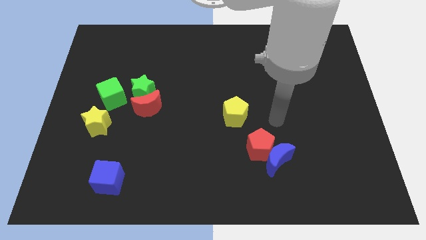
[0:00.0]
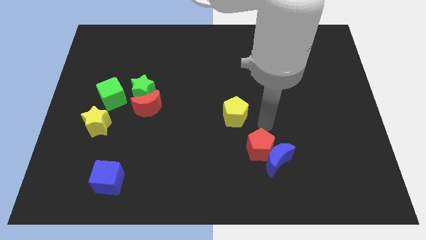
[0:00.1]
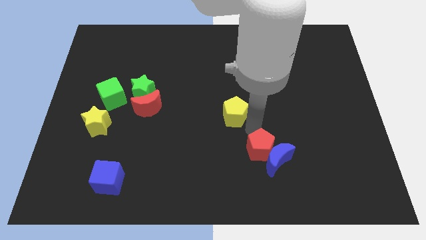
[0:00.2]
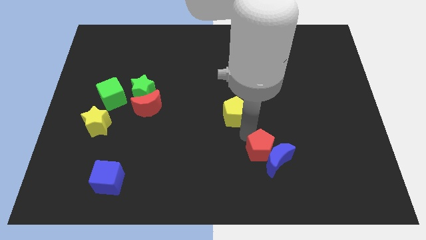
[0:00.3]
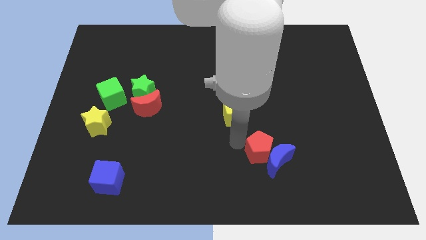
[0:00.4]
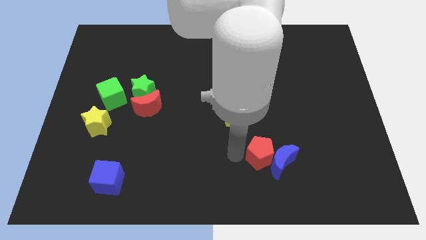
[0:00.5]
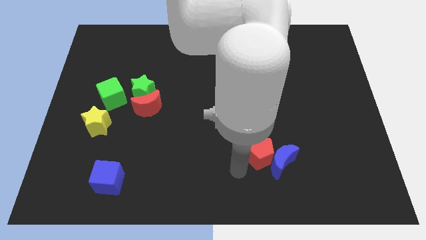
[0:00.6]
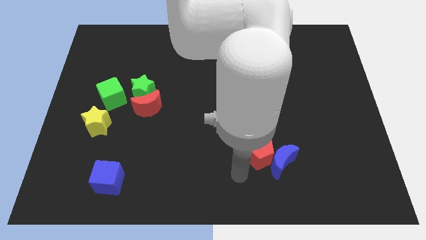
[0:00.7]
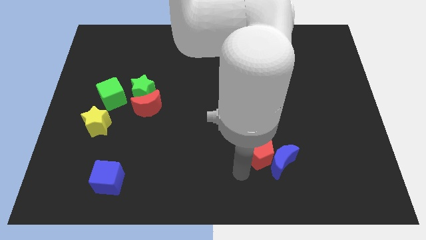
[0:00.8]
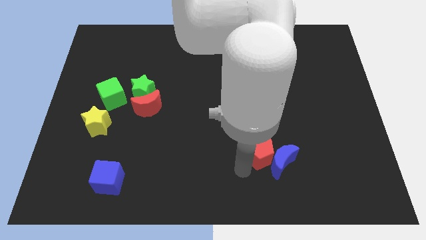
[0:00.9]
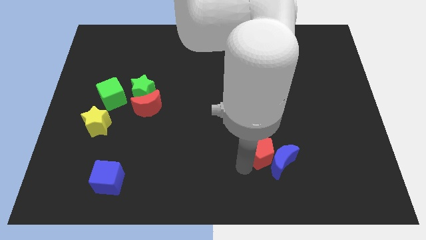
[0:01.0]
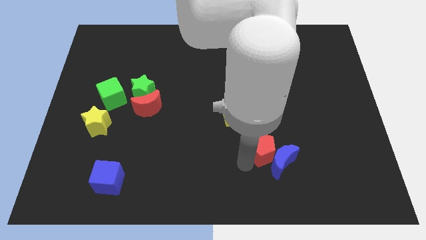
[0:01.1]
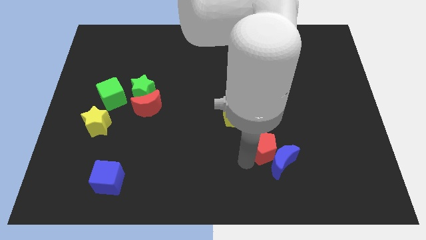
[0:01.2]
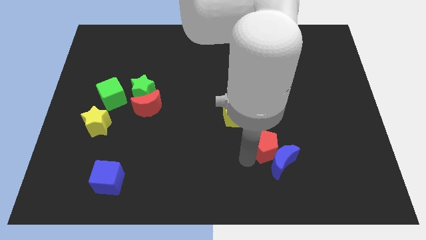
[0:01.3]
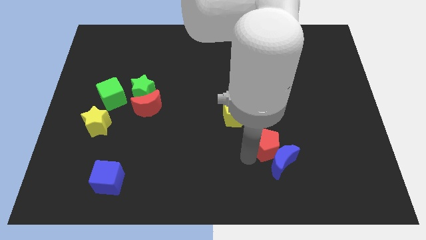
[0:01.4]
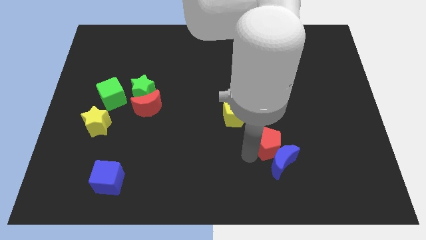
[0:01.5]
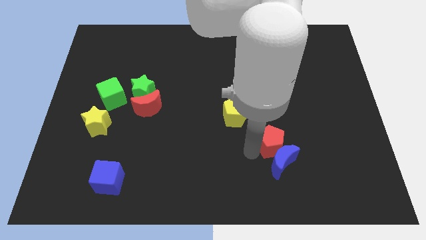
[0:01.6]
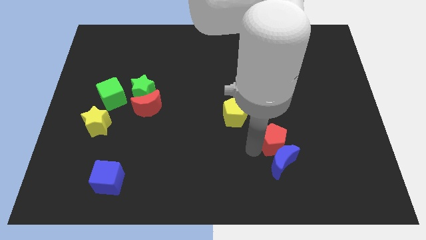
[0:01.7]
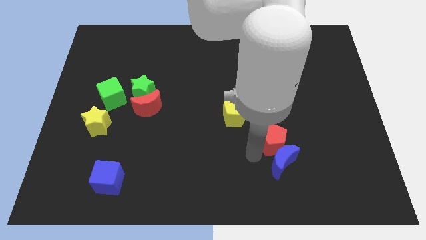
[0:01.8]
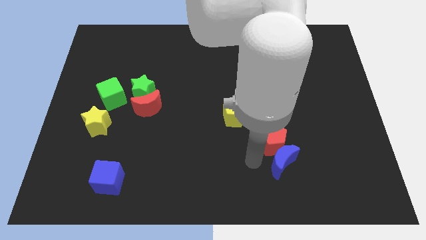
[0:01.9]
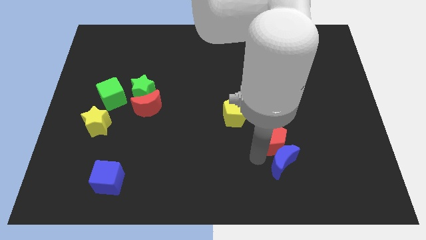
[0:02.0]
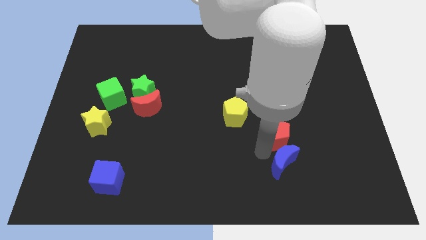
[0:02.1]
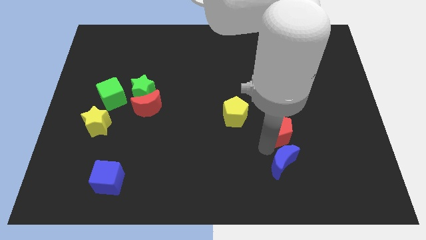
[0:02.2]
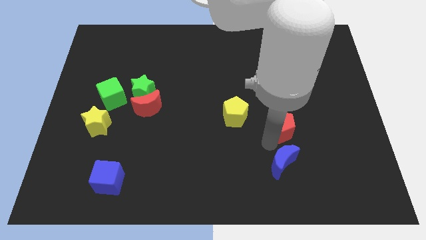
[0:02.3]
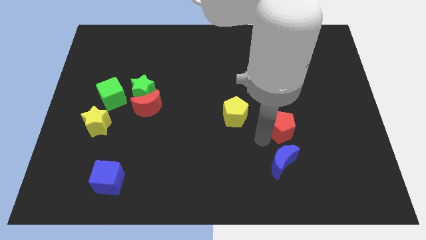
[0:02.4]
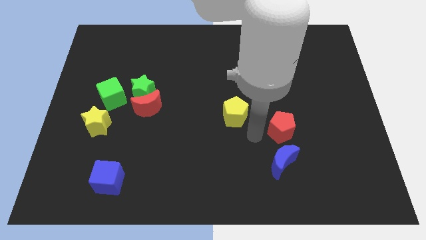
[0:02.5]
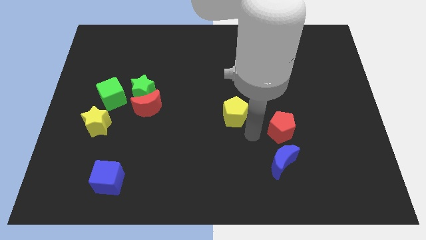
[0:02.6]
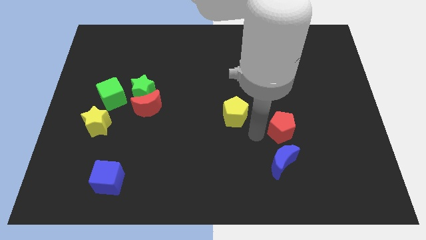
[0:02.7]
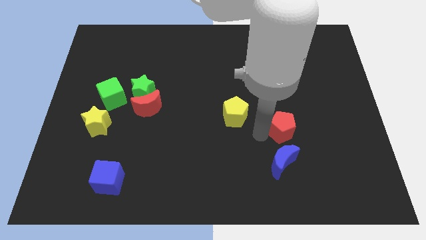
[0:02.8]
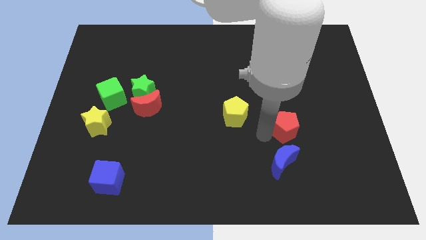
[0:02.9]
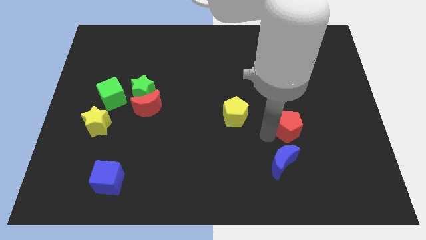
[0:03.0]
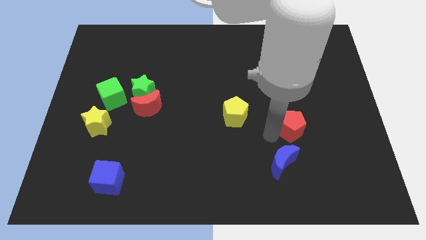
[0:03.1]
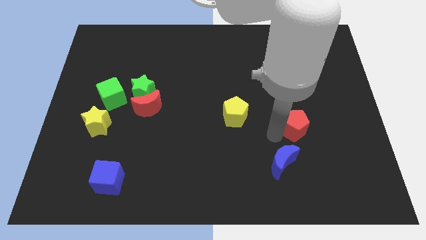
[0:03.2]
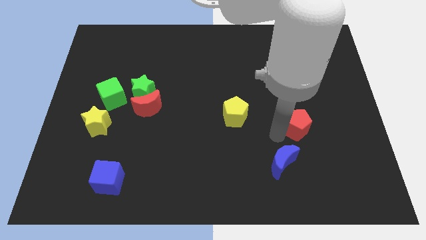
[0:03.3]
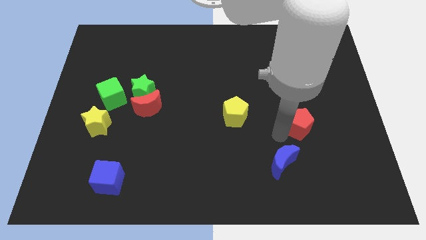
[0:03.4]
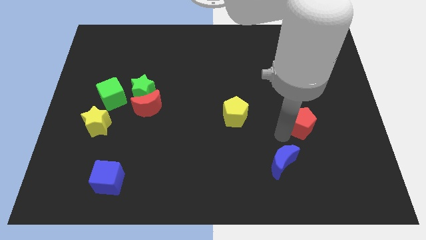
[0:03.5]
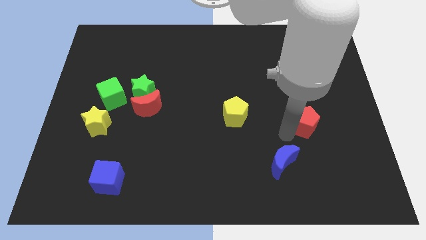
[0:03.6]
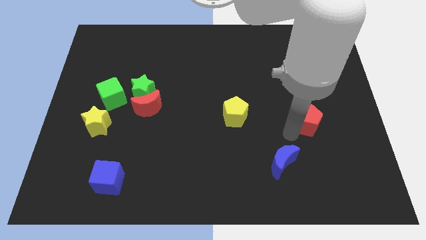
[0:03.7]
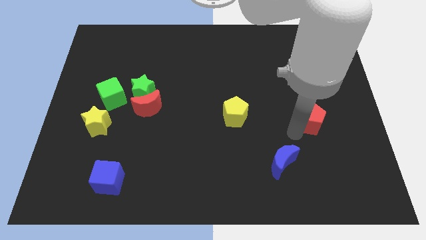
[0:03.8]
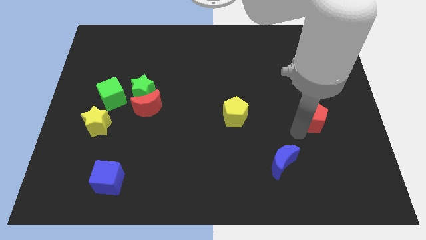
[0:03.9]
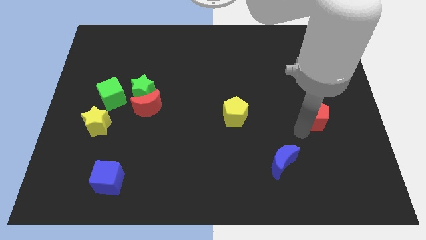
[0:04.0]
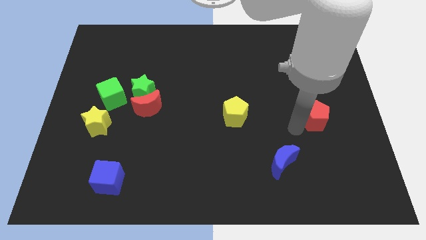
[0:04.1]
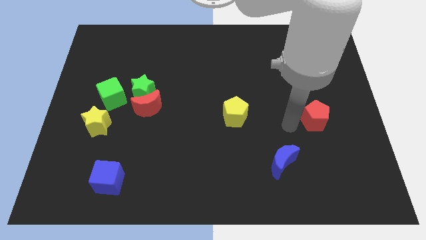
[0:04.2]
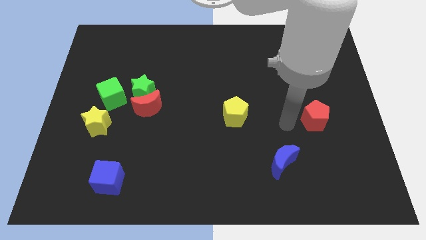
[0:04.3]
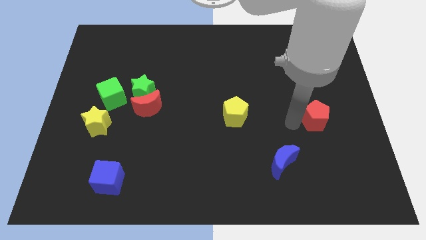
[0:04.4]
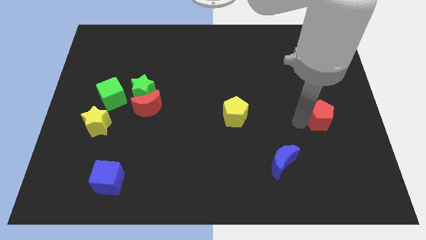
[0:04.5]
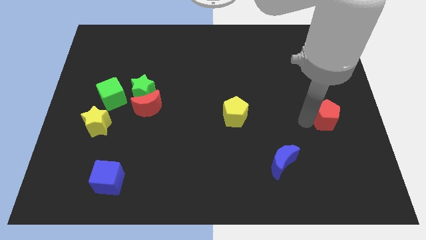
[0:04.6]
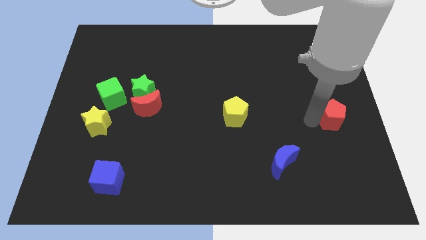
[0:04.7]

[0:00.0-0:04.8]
move the red pentagon to the right side

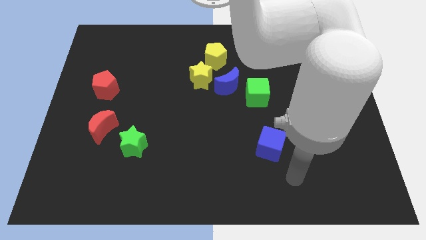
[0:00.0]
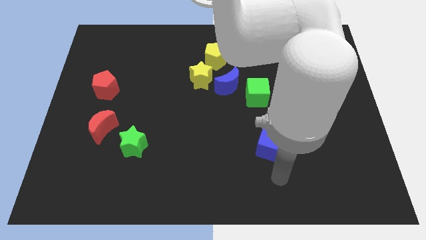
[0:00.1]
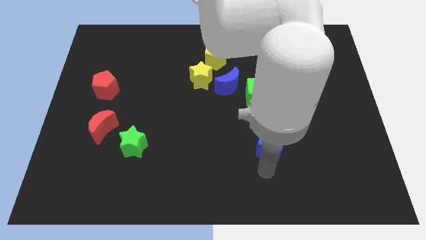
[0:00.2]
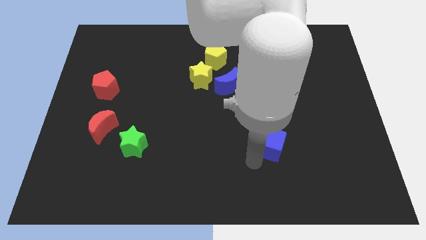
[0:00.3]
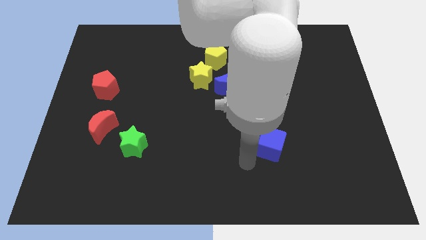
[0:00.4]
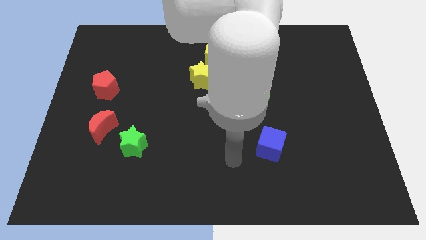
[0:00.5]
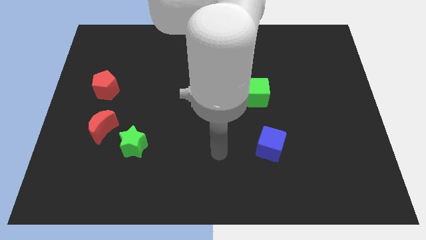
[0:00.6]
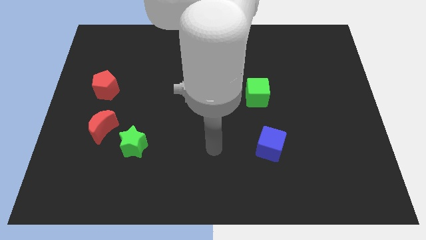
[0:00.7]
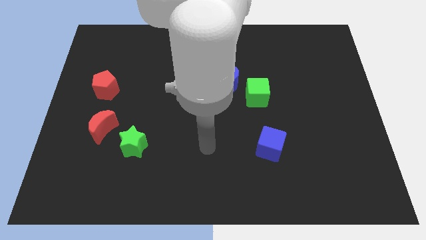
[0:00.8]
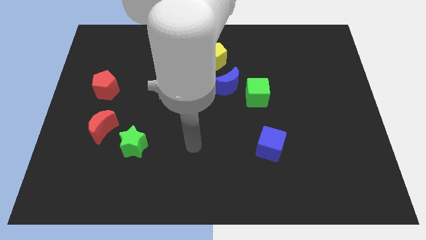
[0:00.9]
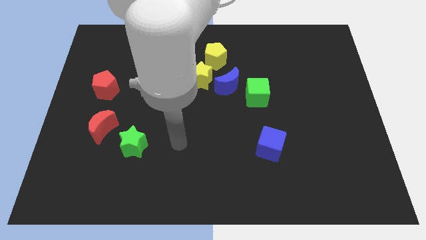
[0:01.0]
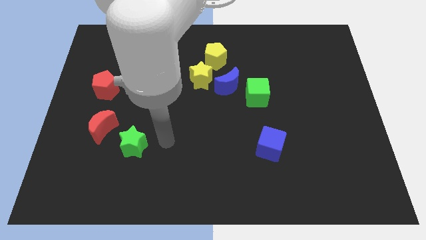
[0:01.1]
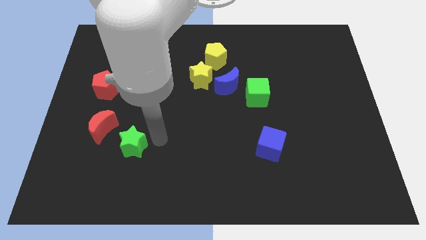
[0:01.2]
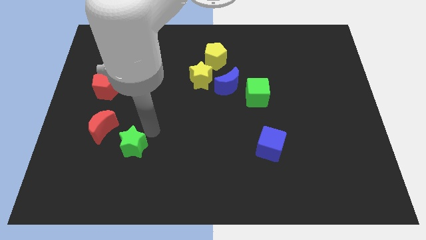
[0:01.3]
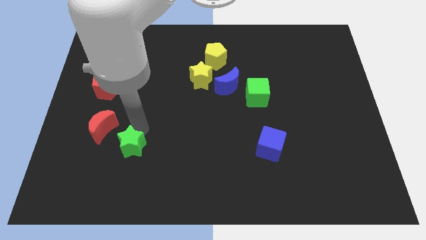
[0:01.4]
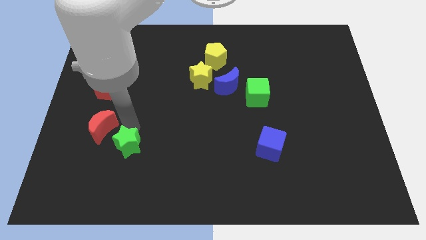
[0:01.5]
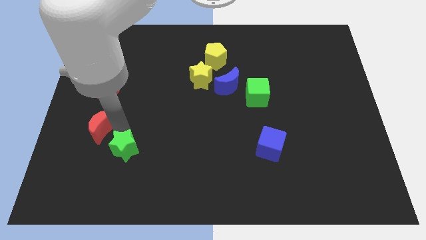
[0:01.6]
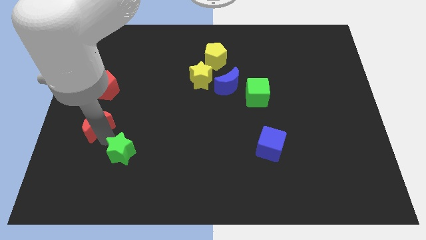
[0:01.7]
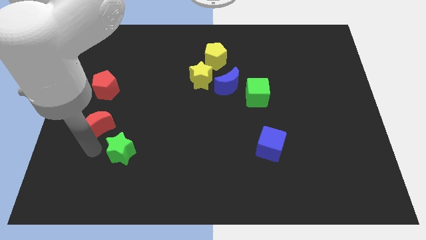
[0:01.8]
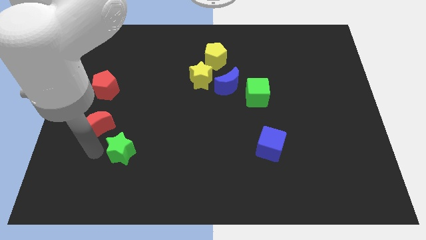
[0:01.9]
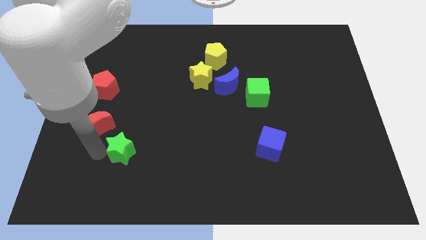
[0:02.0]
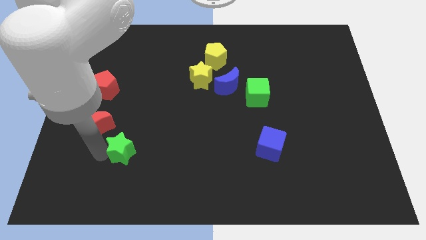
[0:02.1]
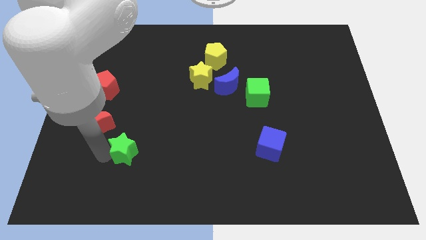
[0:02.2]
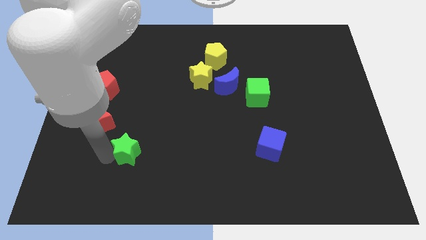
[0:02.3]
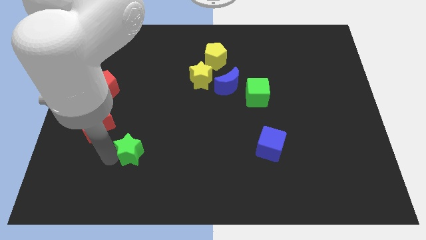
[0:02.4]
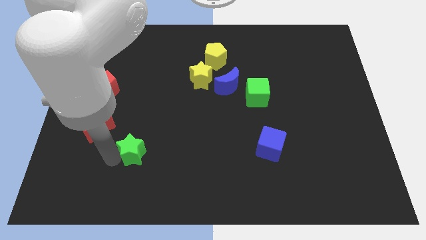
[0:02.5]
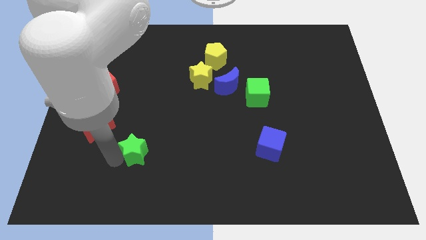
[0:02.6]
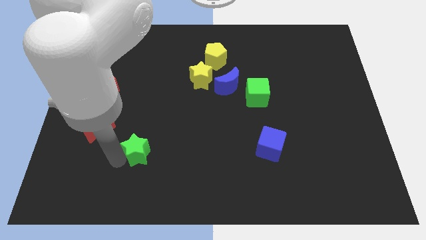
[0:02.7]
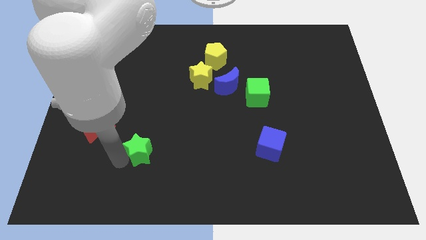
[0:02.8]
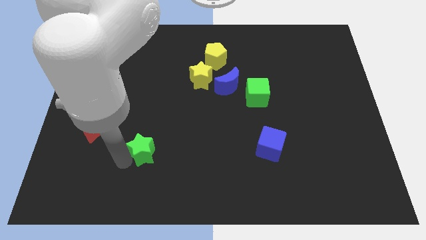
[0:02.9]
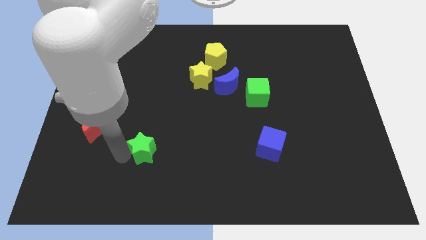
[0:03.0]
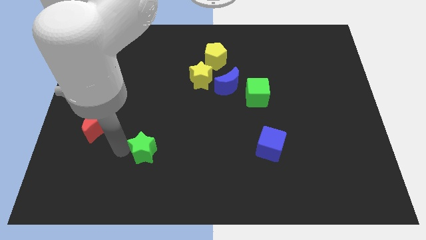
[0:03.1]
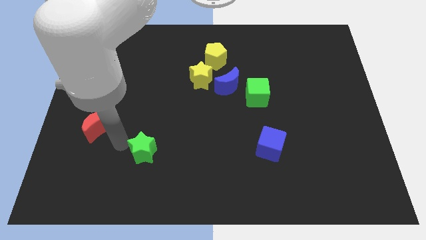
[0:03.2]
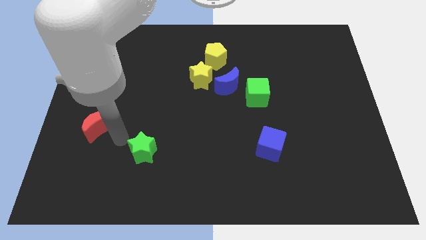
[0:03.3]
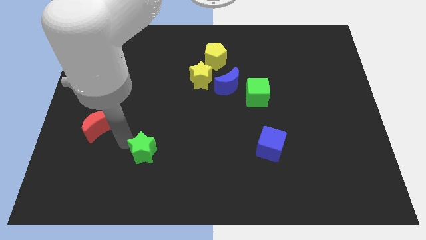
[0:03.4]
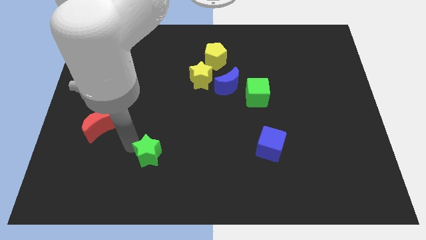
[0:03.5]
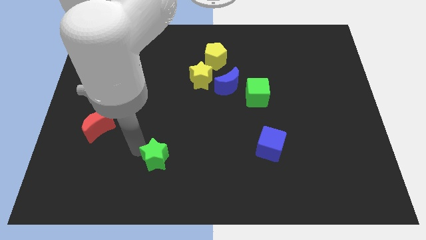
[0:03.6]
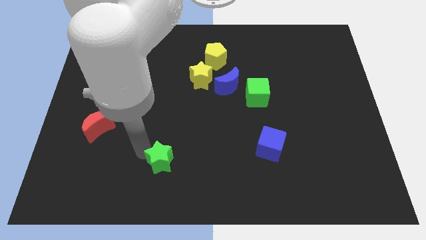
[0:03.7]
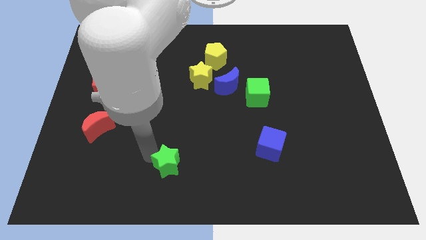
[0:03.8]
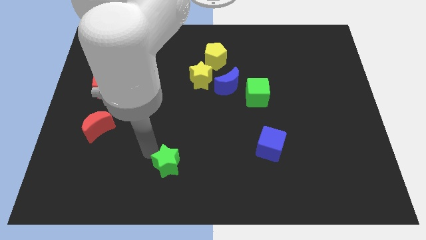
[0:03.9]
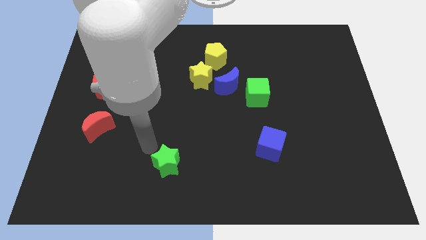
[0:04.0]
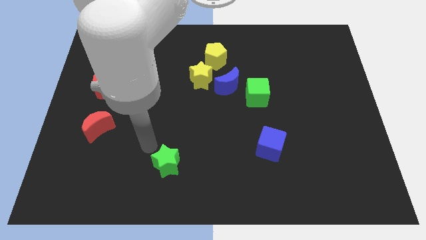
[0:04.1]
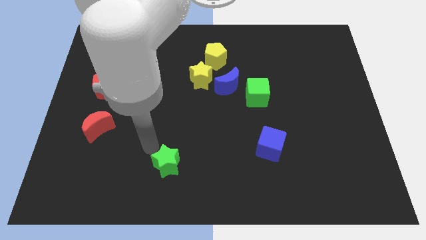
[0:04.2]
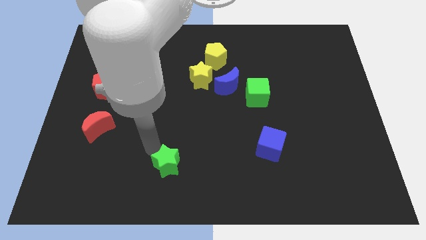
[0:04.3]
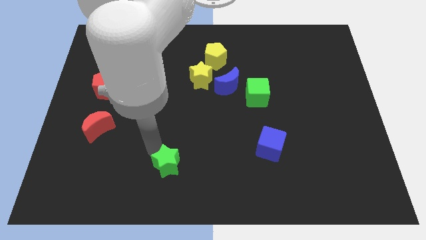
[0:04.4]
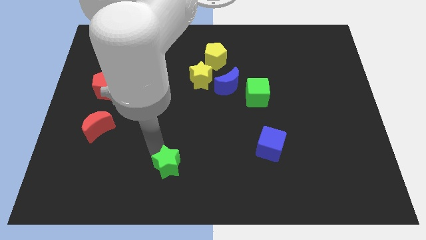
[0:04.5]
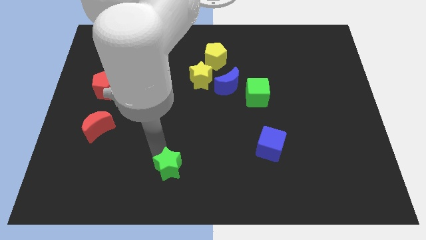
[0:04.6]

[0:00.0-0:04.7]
move the green star to the bottom side
